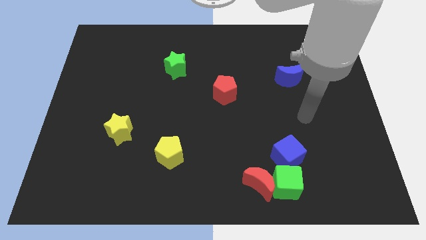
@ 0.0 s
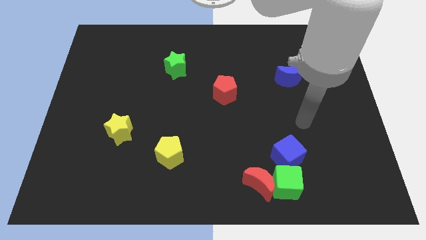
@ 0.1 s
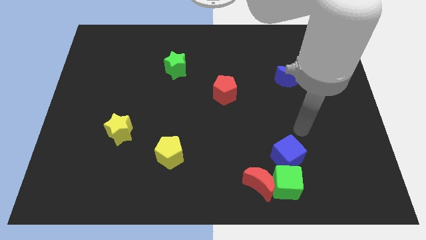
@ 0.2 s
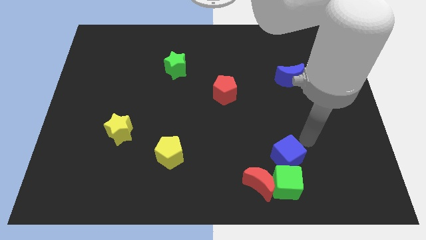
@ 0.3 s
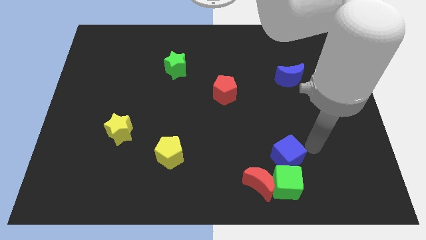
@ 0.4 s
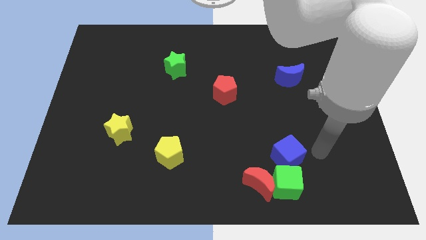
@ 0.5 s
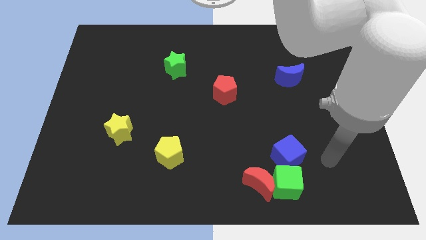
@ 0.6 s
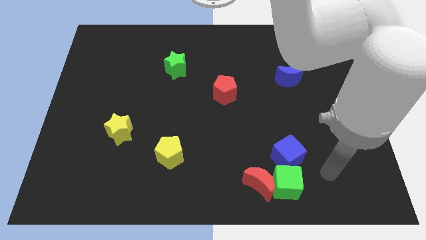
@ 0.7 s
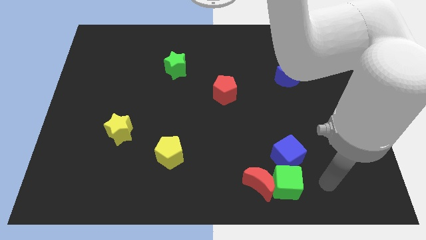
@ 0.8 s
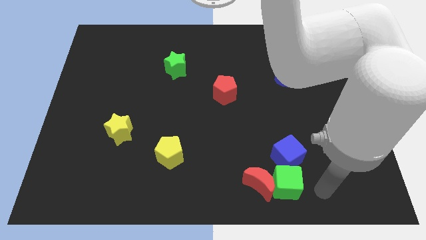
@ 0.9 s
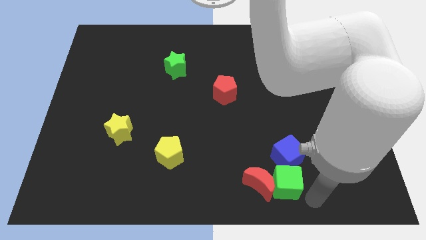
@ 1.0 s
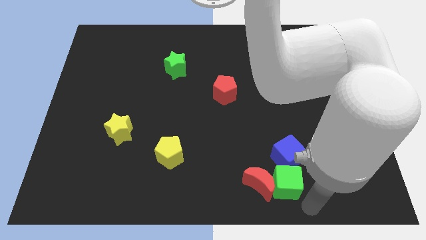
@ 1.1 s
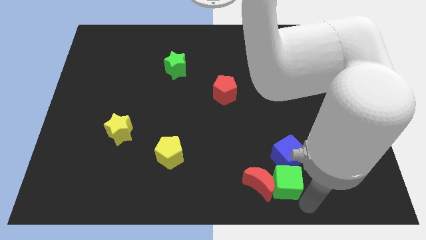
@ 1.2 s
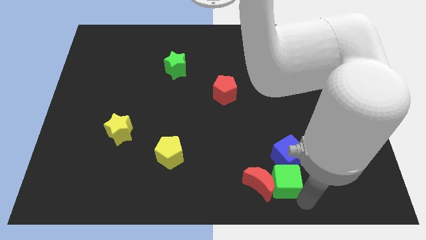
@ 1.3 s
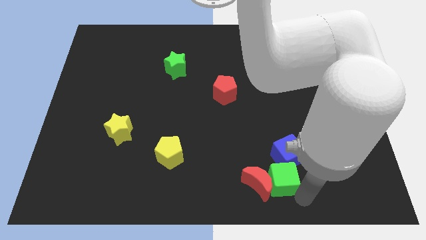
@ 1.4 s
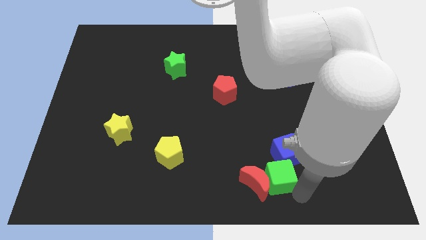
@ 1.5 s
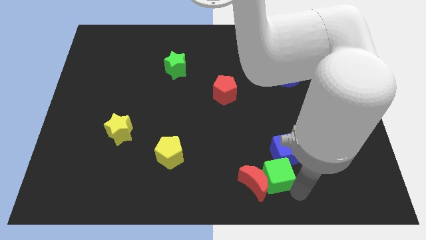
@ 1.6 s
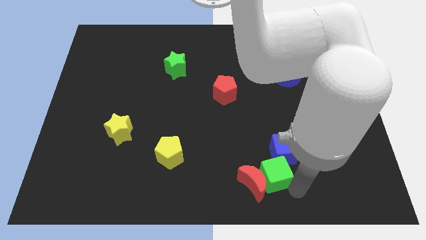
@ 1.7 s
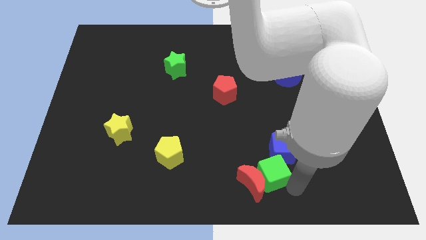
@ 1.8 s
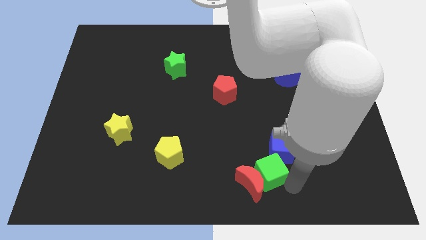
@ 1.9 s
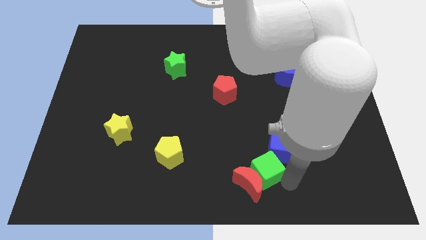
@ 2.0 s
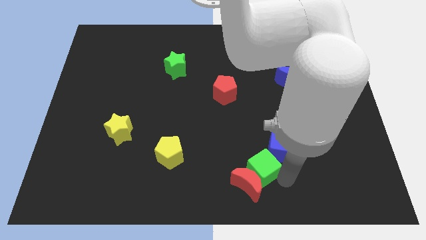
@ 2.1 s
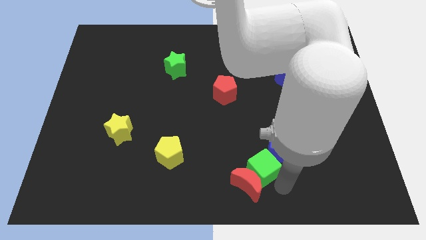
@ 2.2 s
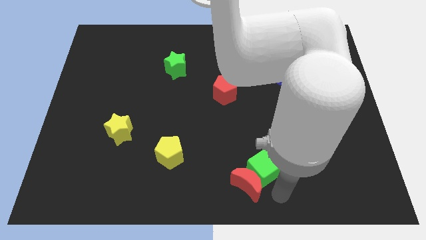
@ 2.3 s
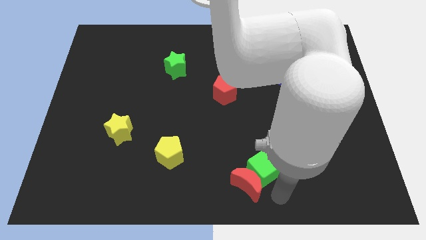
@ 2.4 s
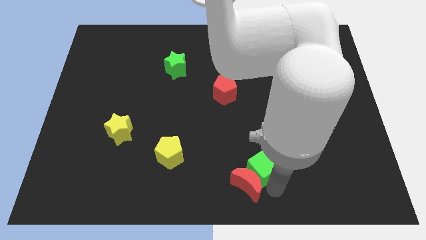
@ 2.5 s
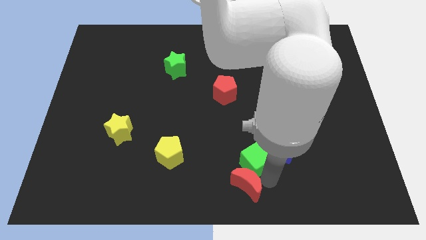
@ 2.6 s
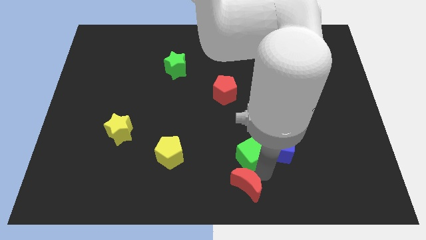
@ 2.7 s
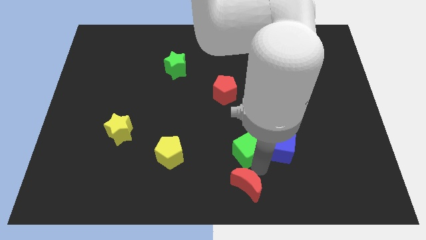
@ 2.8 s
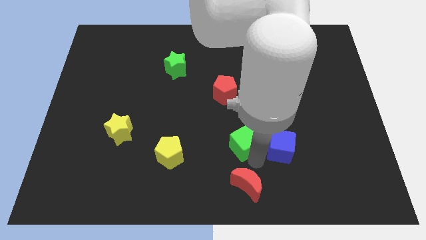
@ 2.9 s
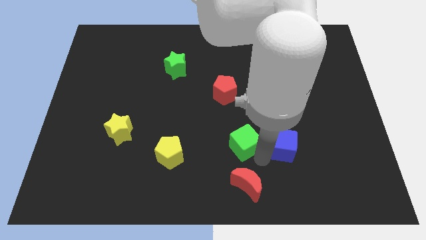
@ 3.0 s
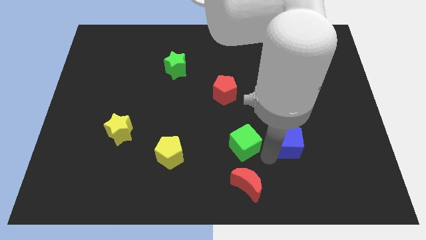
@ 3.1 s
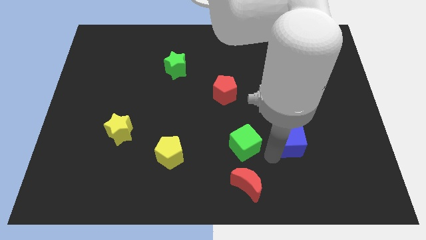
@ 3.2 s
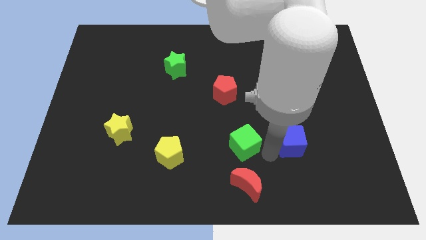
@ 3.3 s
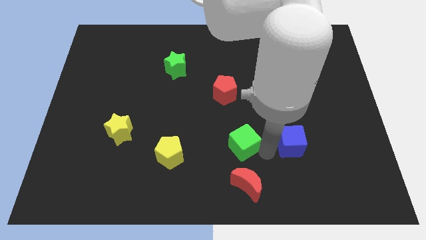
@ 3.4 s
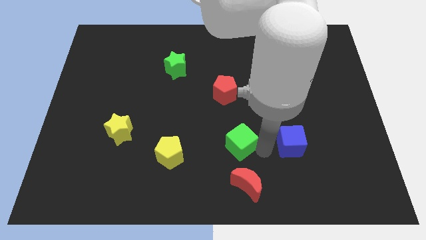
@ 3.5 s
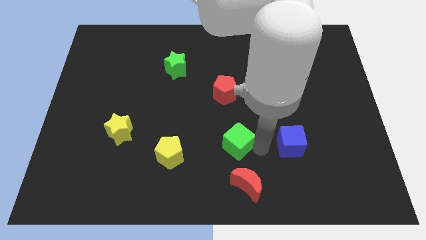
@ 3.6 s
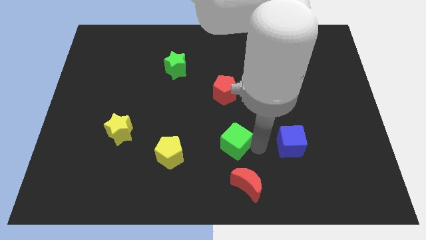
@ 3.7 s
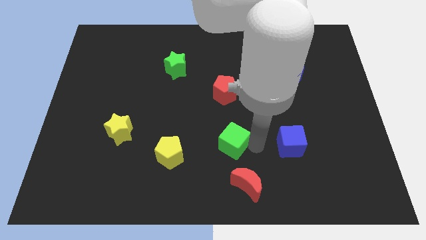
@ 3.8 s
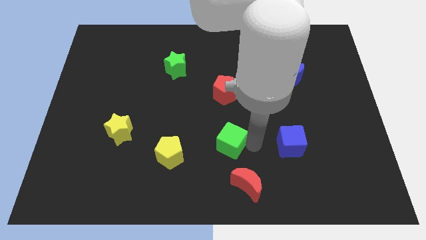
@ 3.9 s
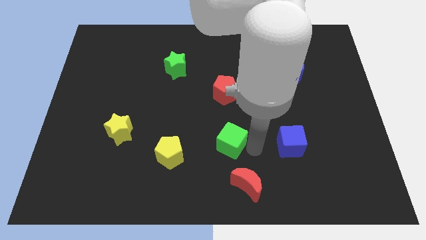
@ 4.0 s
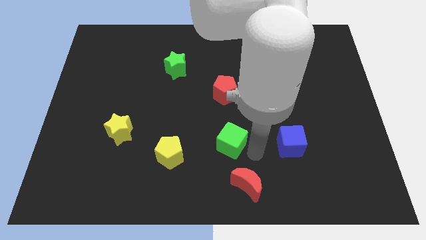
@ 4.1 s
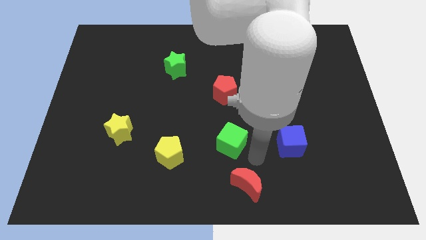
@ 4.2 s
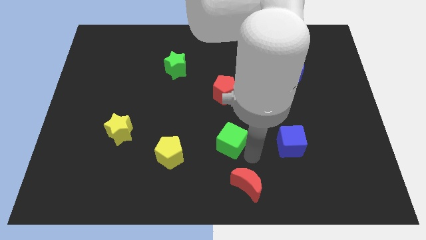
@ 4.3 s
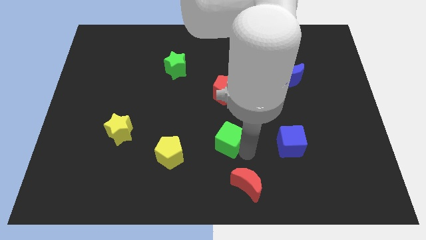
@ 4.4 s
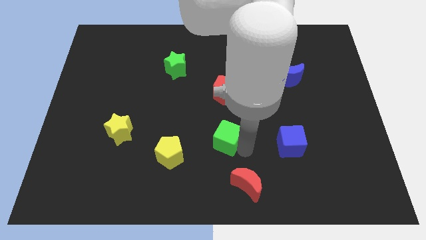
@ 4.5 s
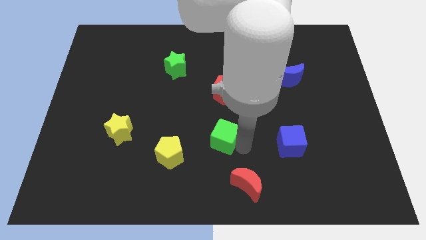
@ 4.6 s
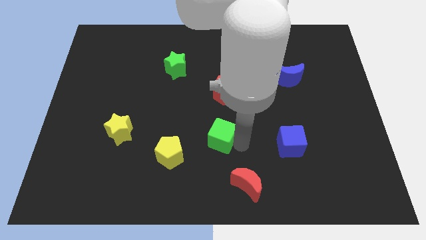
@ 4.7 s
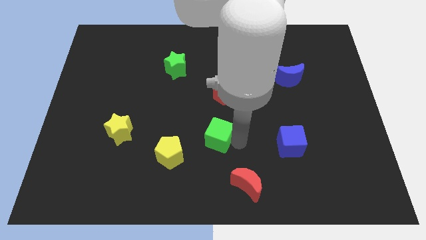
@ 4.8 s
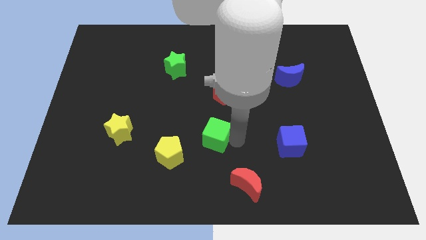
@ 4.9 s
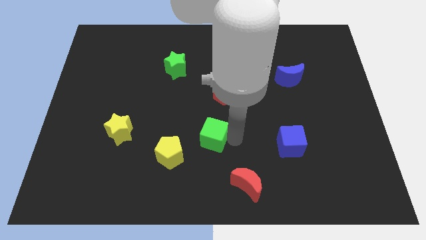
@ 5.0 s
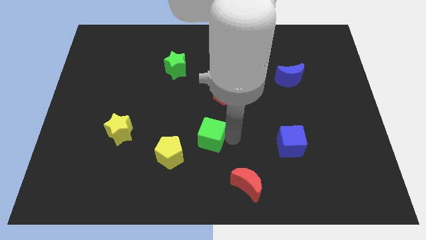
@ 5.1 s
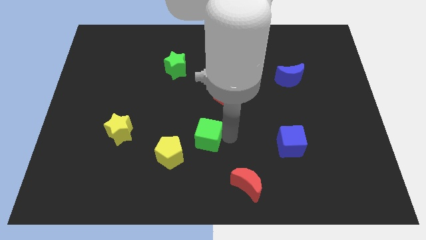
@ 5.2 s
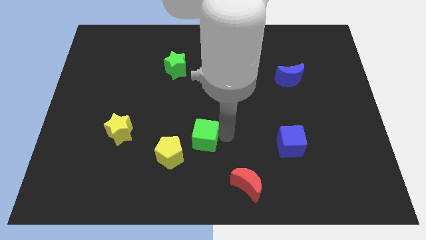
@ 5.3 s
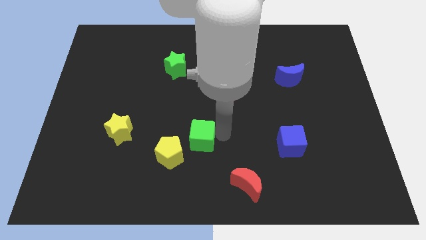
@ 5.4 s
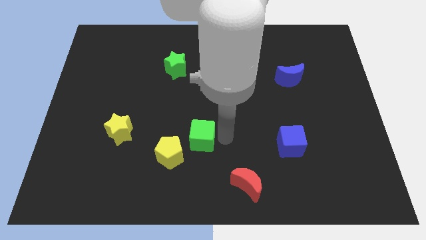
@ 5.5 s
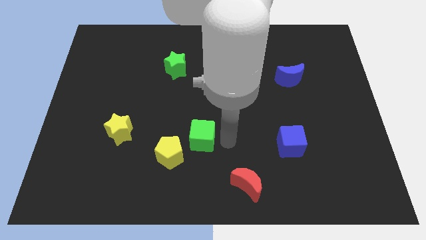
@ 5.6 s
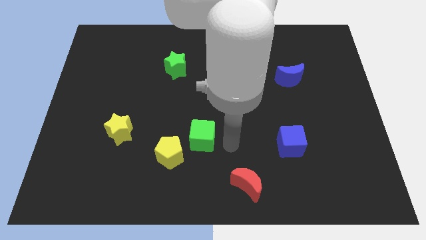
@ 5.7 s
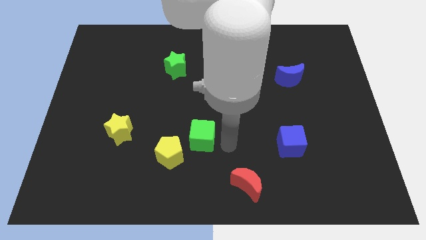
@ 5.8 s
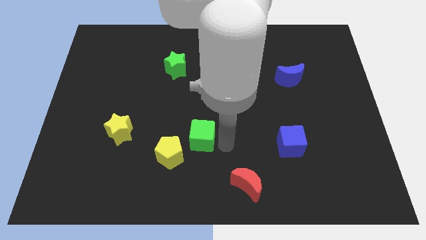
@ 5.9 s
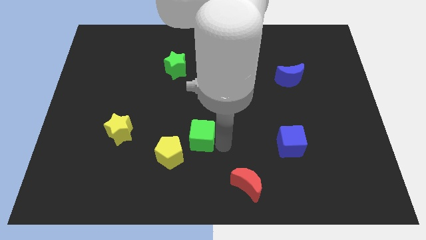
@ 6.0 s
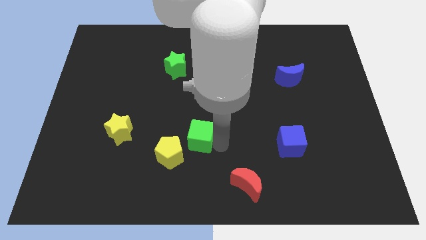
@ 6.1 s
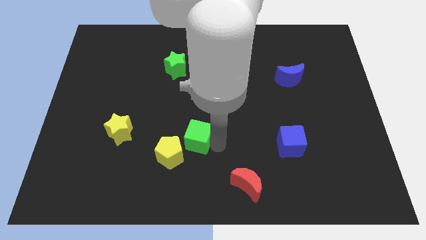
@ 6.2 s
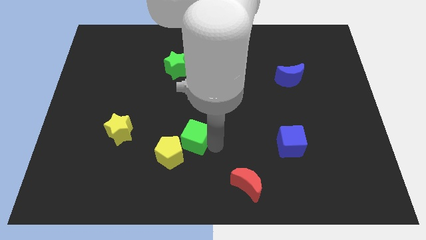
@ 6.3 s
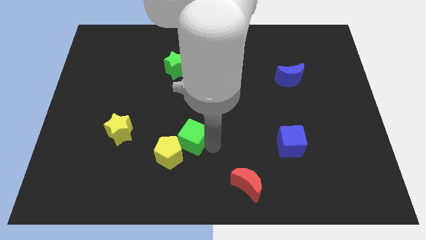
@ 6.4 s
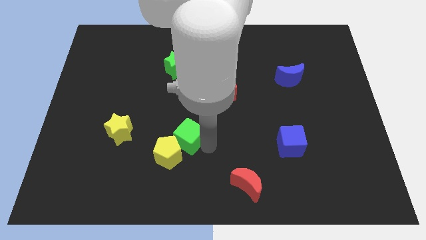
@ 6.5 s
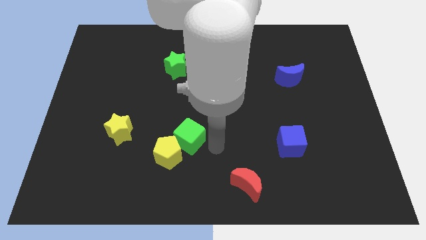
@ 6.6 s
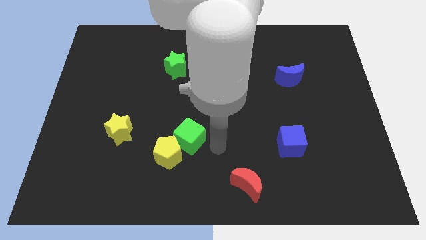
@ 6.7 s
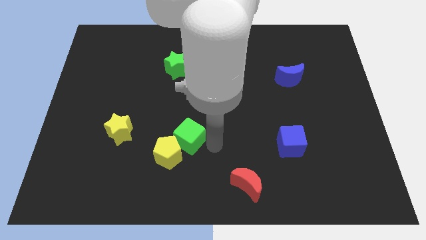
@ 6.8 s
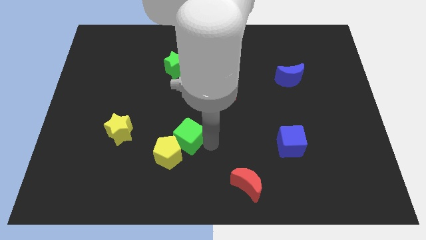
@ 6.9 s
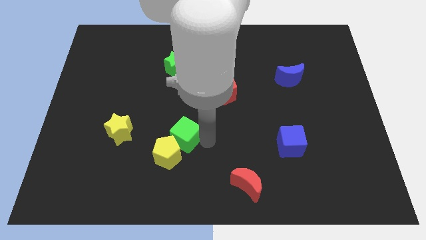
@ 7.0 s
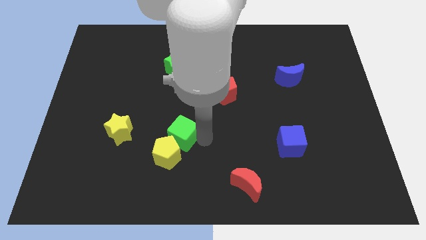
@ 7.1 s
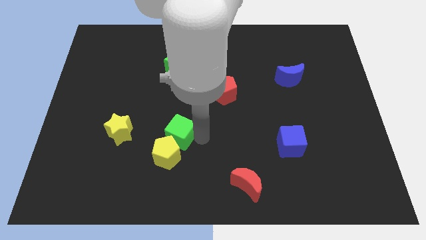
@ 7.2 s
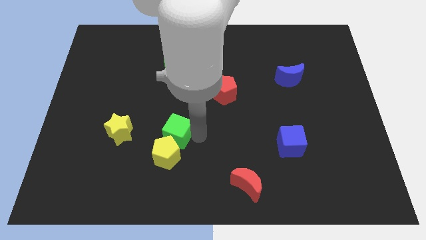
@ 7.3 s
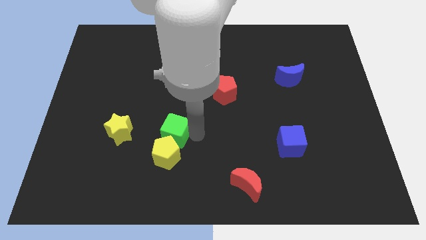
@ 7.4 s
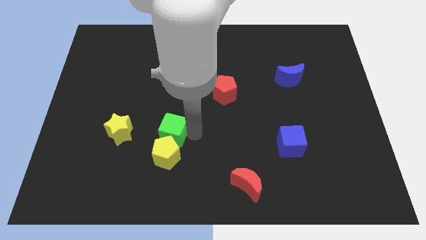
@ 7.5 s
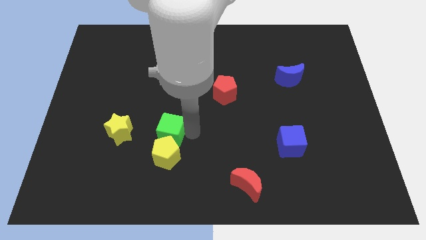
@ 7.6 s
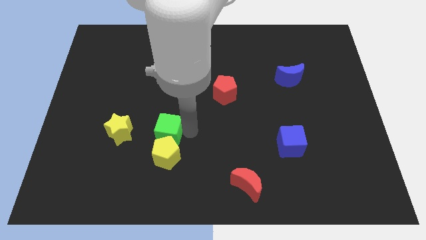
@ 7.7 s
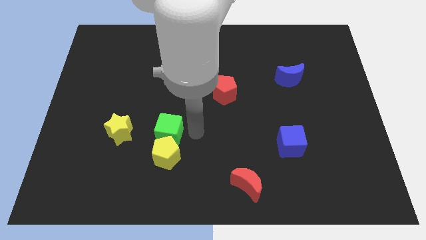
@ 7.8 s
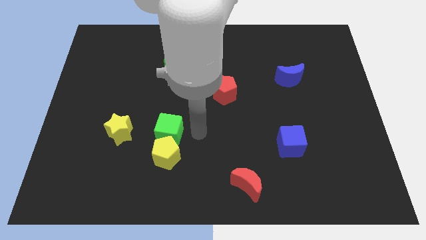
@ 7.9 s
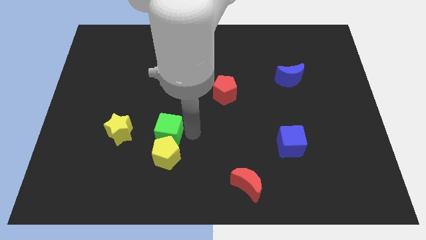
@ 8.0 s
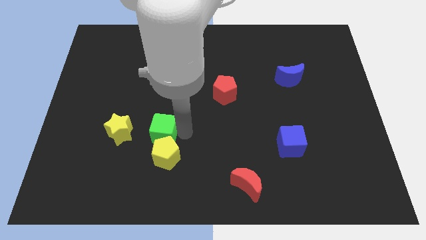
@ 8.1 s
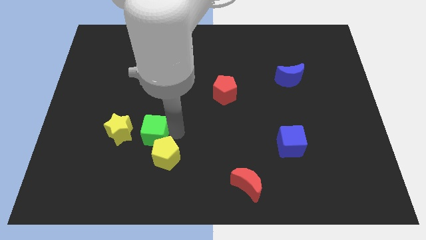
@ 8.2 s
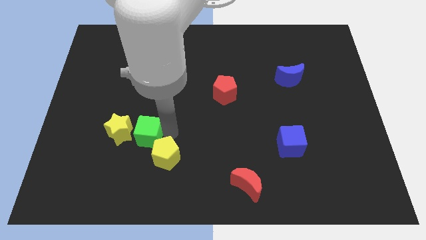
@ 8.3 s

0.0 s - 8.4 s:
push the green cube next to the yellow star
